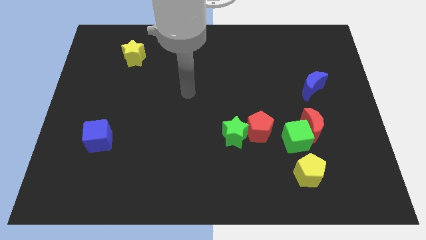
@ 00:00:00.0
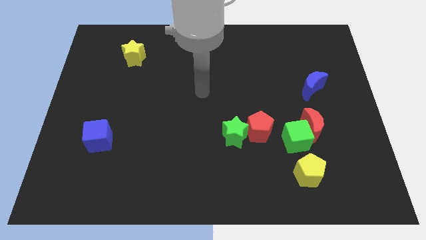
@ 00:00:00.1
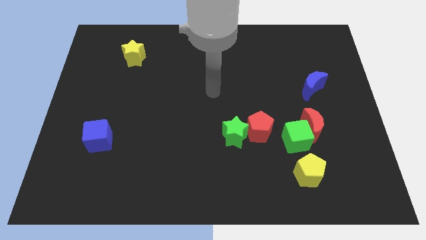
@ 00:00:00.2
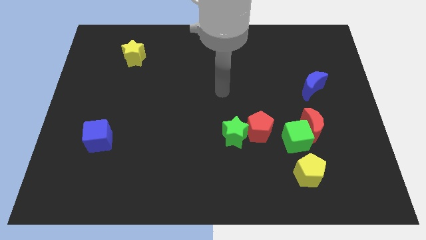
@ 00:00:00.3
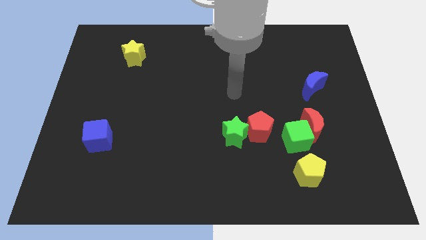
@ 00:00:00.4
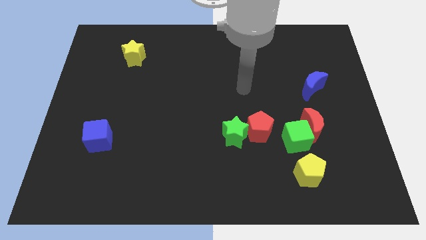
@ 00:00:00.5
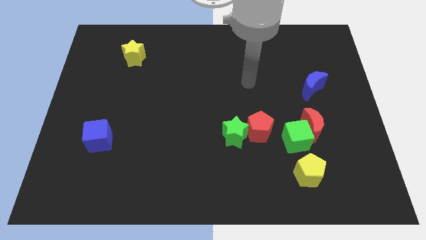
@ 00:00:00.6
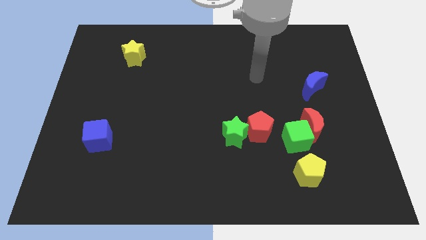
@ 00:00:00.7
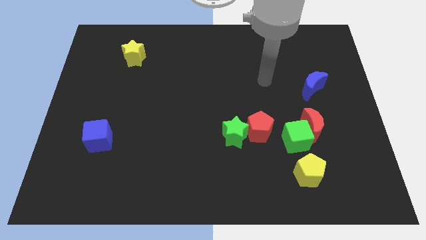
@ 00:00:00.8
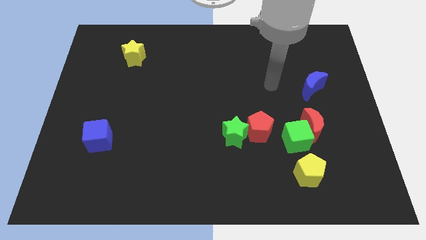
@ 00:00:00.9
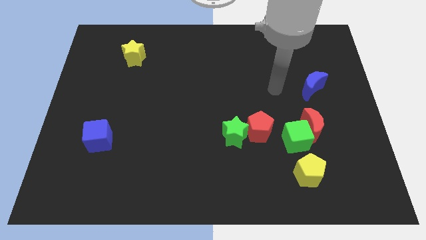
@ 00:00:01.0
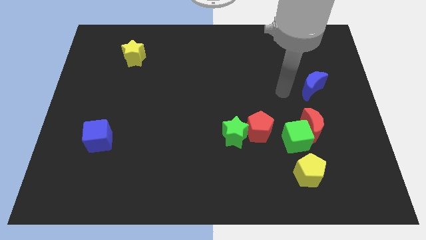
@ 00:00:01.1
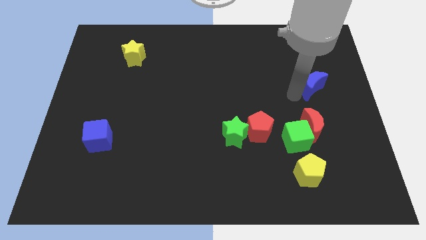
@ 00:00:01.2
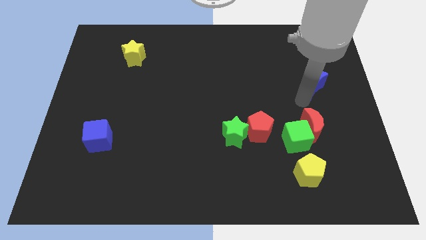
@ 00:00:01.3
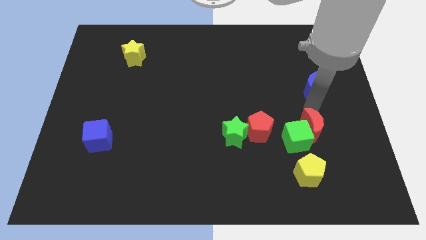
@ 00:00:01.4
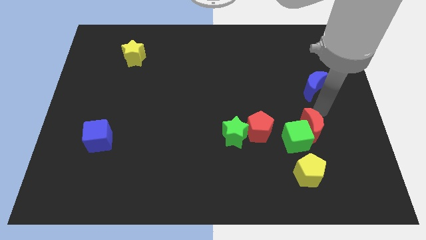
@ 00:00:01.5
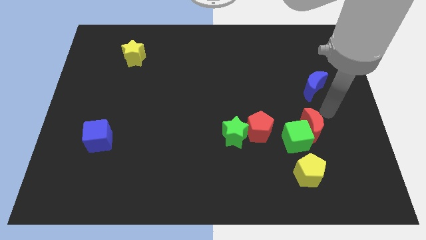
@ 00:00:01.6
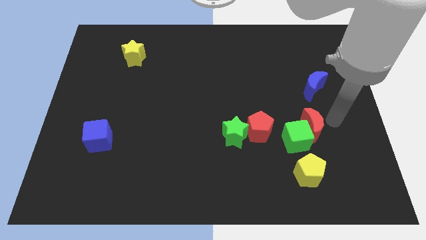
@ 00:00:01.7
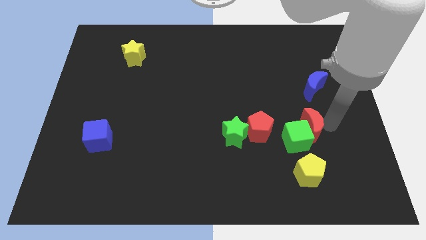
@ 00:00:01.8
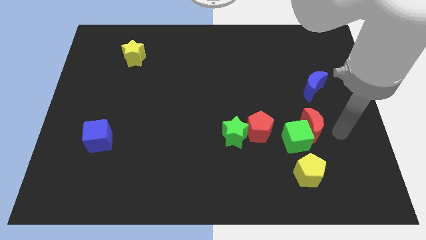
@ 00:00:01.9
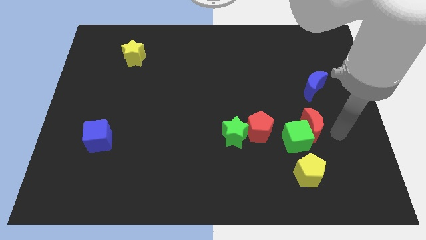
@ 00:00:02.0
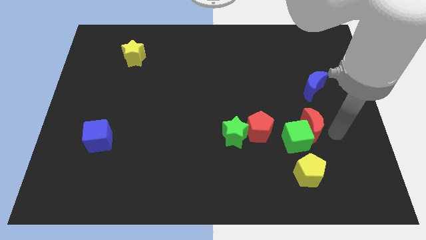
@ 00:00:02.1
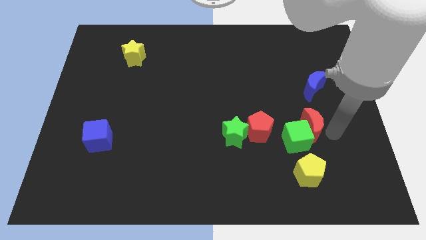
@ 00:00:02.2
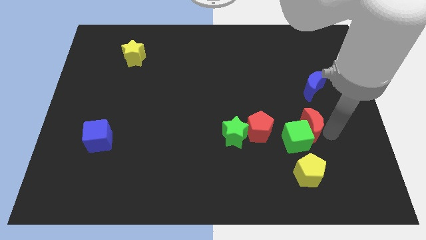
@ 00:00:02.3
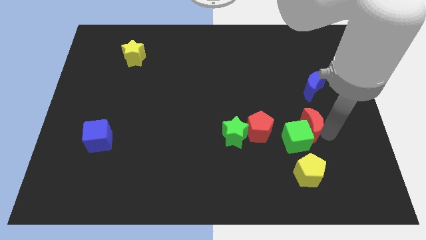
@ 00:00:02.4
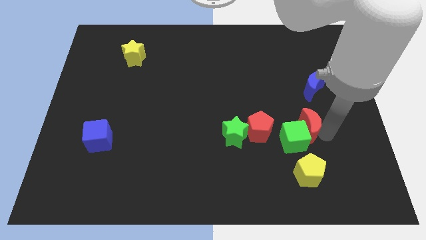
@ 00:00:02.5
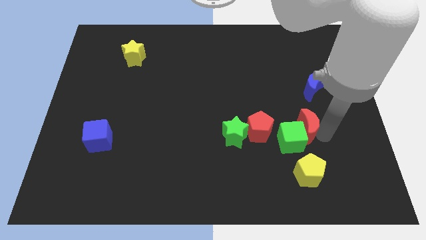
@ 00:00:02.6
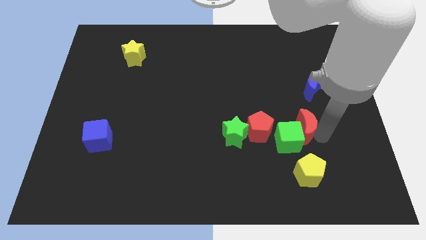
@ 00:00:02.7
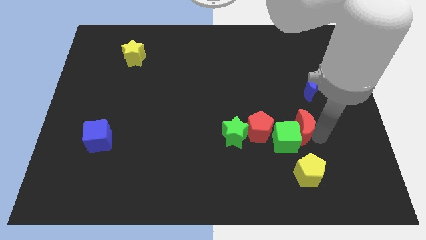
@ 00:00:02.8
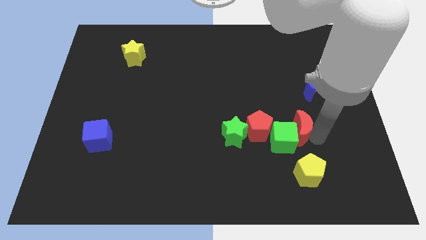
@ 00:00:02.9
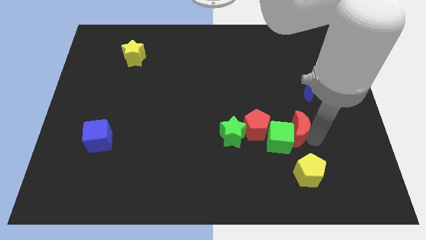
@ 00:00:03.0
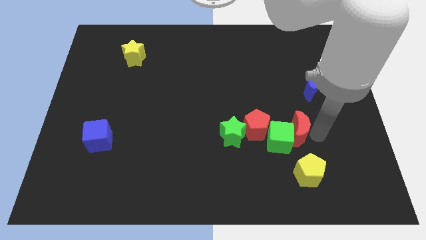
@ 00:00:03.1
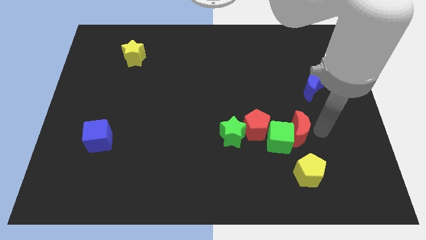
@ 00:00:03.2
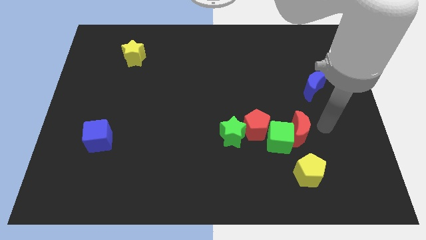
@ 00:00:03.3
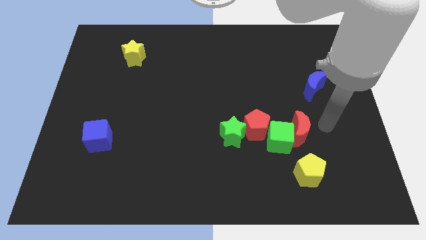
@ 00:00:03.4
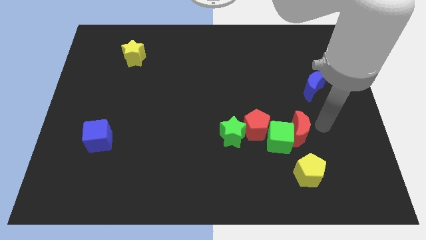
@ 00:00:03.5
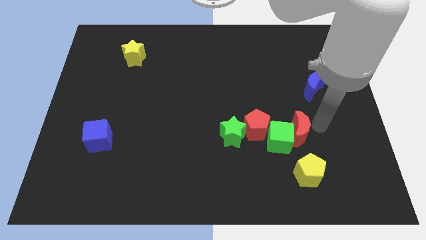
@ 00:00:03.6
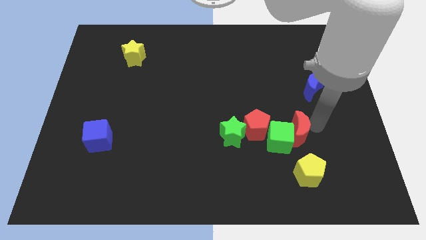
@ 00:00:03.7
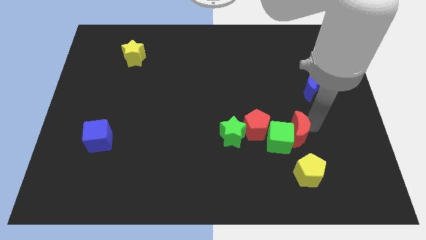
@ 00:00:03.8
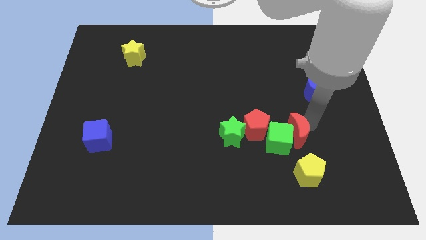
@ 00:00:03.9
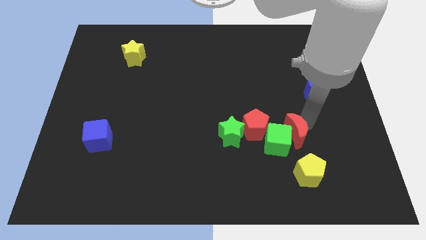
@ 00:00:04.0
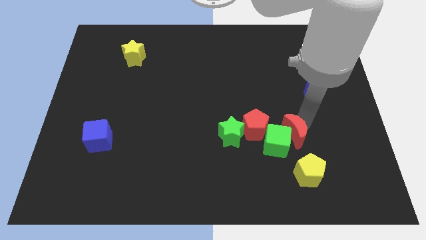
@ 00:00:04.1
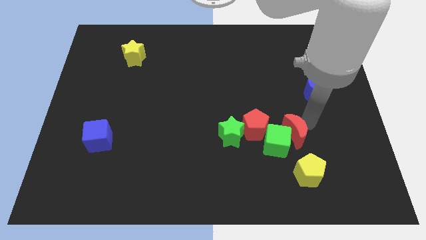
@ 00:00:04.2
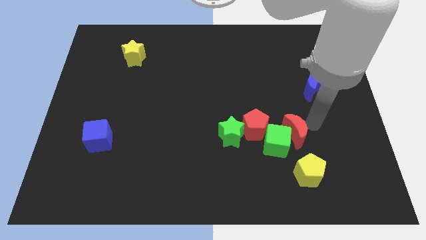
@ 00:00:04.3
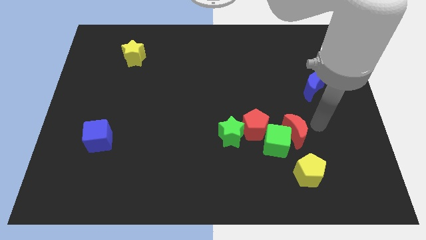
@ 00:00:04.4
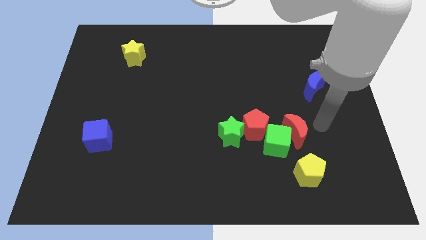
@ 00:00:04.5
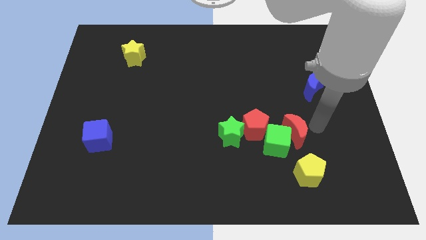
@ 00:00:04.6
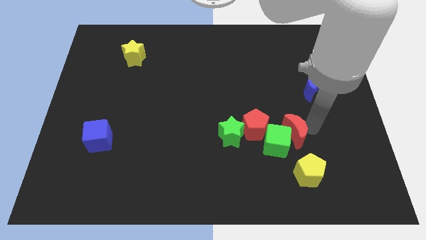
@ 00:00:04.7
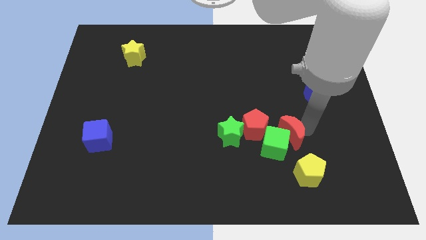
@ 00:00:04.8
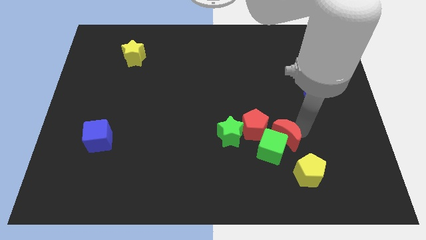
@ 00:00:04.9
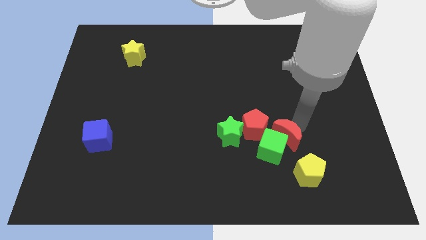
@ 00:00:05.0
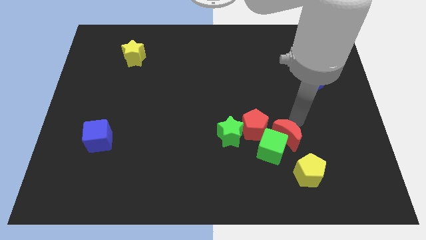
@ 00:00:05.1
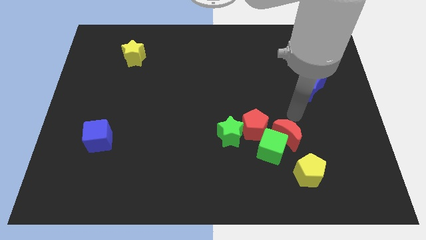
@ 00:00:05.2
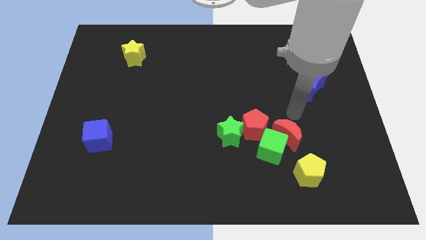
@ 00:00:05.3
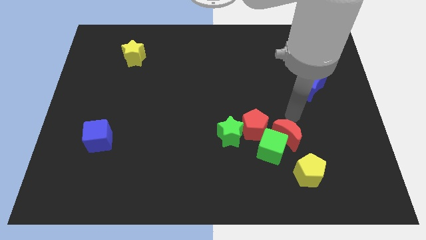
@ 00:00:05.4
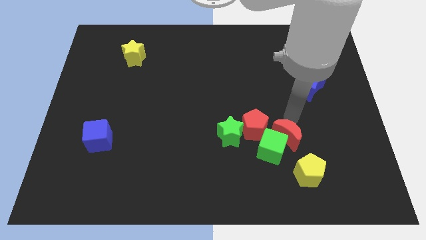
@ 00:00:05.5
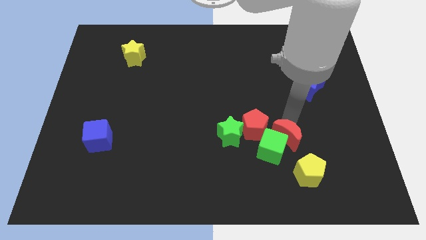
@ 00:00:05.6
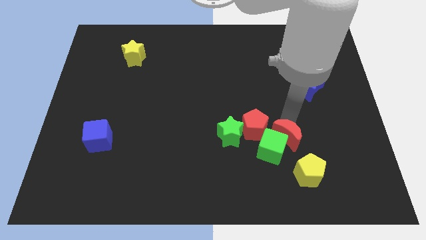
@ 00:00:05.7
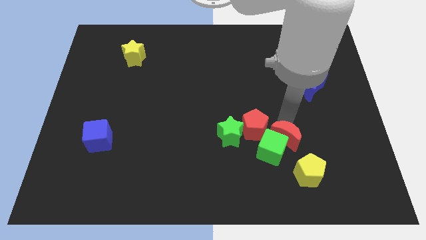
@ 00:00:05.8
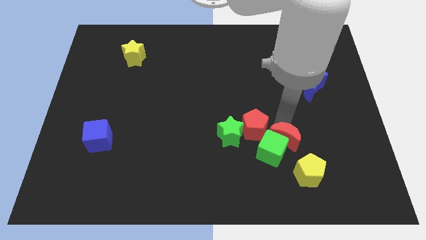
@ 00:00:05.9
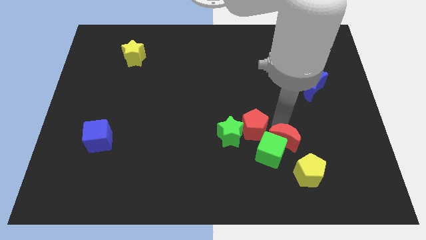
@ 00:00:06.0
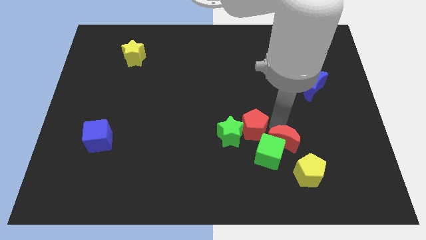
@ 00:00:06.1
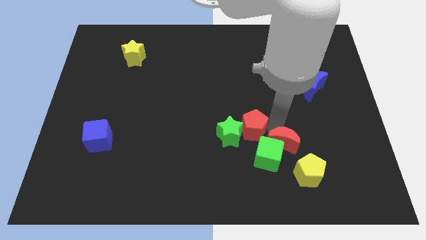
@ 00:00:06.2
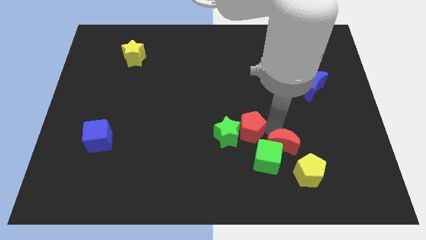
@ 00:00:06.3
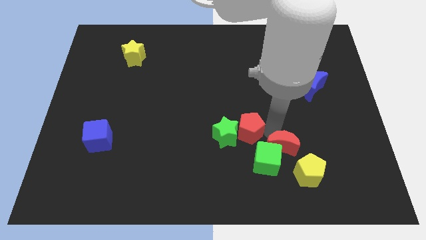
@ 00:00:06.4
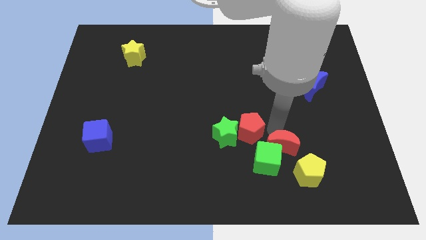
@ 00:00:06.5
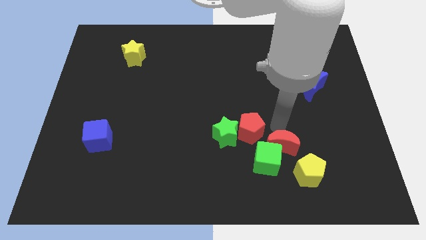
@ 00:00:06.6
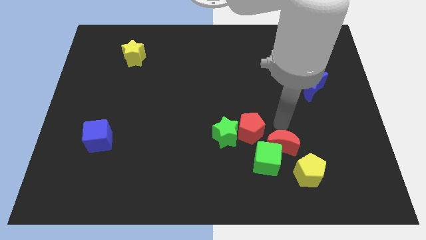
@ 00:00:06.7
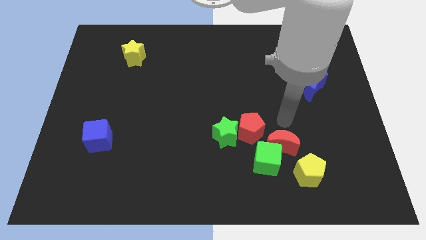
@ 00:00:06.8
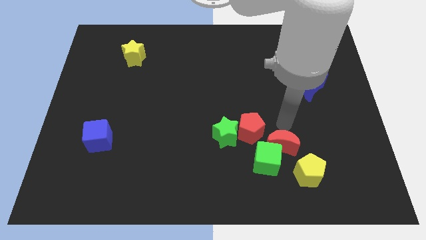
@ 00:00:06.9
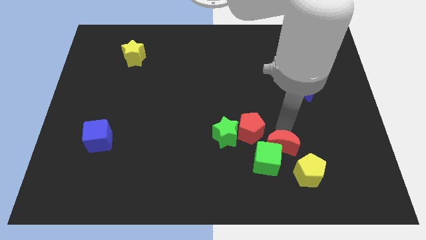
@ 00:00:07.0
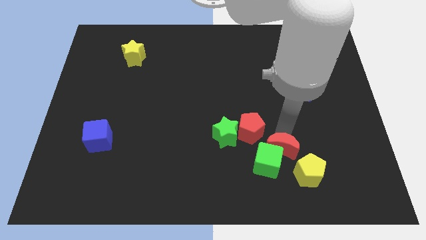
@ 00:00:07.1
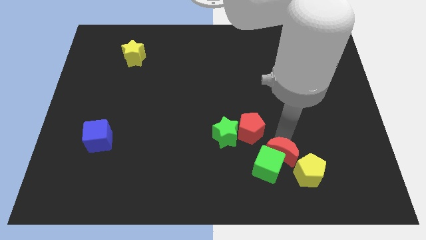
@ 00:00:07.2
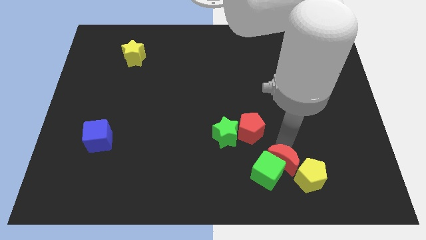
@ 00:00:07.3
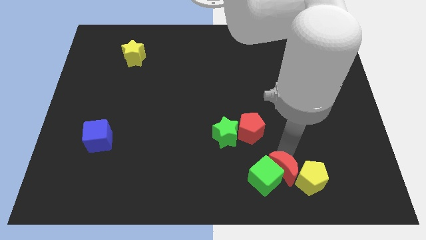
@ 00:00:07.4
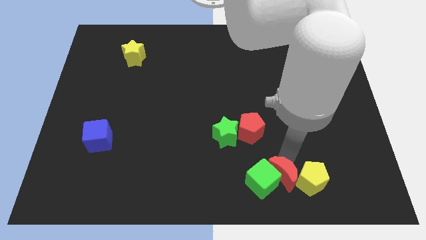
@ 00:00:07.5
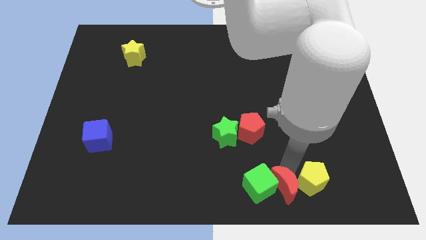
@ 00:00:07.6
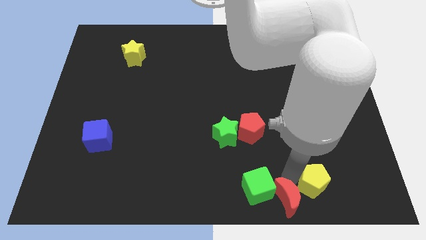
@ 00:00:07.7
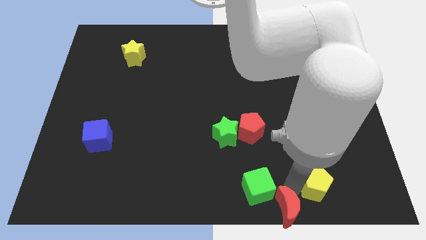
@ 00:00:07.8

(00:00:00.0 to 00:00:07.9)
move the red moon to the bottom side
